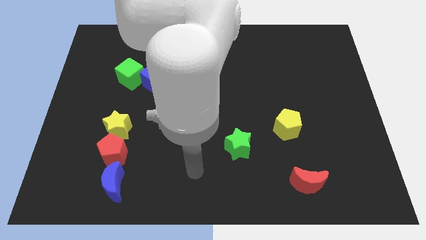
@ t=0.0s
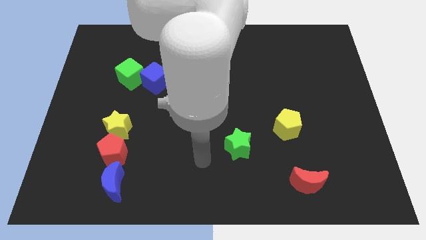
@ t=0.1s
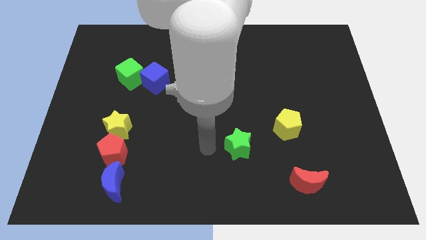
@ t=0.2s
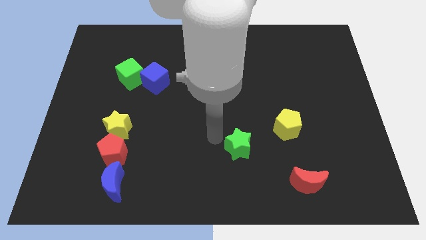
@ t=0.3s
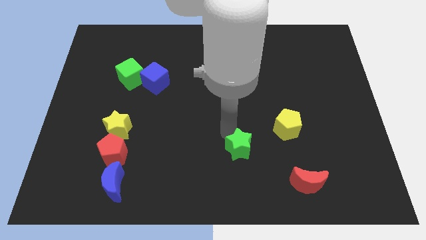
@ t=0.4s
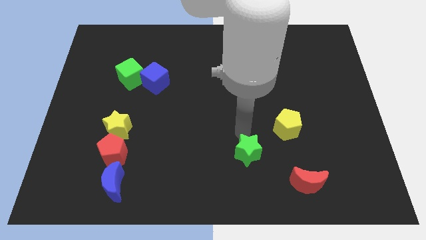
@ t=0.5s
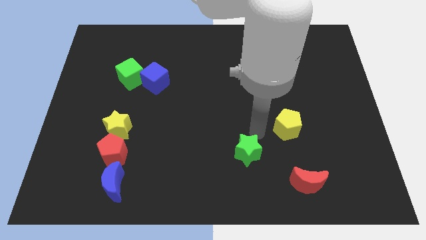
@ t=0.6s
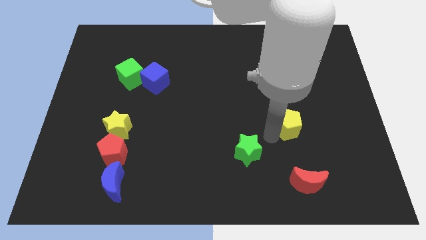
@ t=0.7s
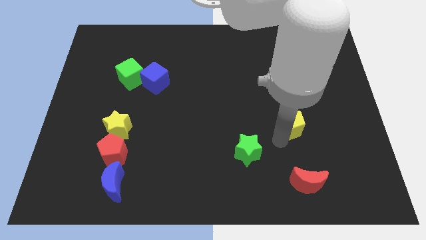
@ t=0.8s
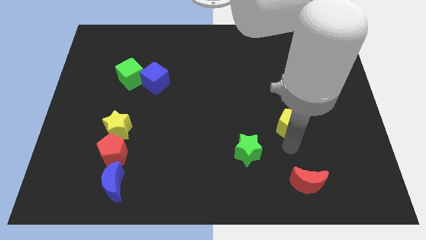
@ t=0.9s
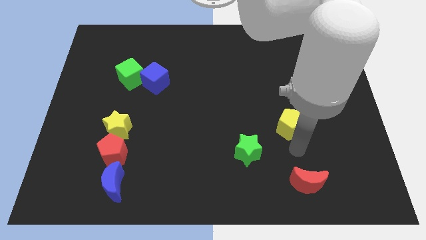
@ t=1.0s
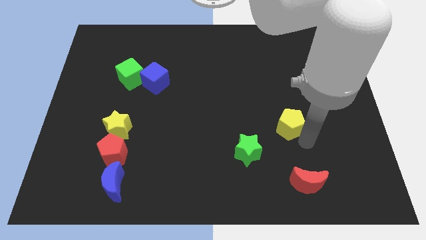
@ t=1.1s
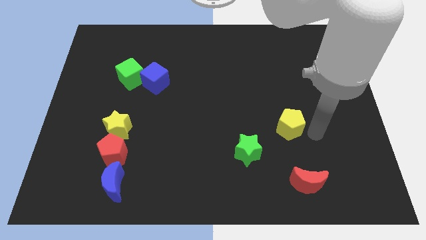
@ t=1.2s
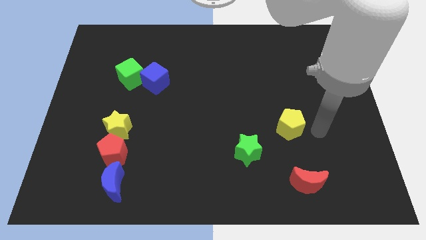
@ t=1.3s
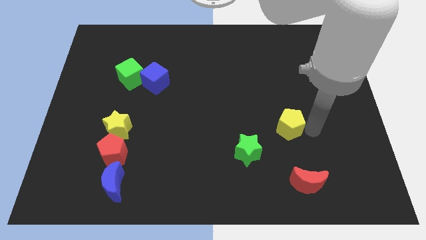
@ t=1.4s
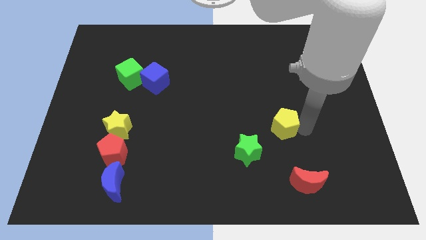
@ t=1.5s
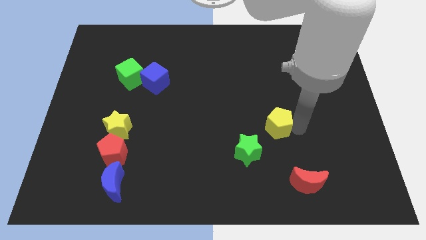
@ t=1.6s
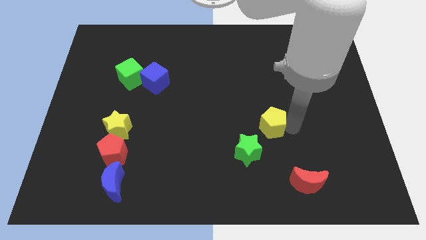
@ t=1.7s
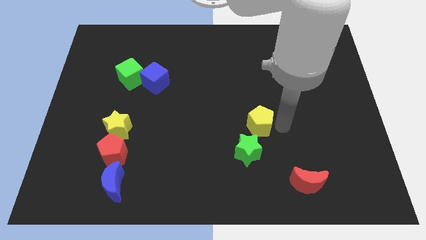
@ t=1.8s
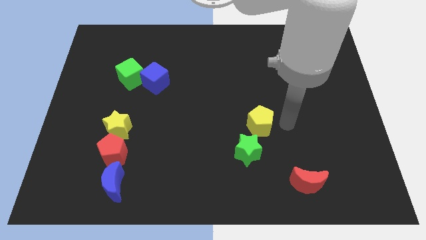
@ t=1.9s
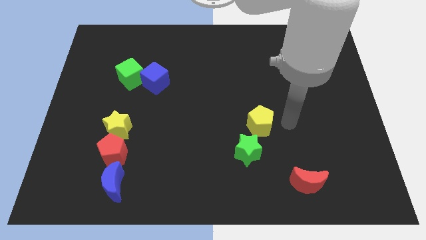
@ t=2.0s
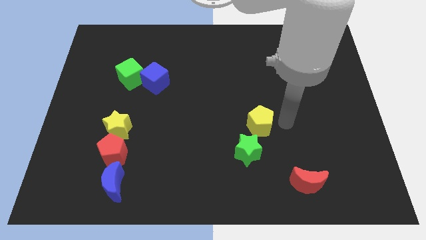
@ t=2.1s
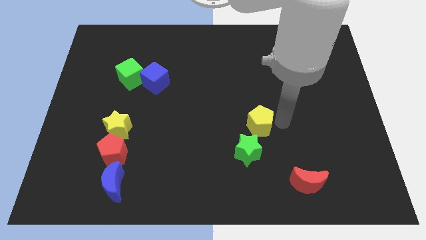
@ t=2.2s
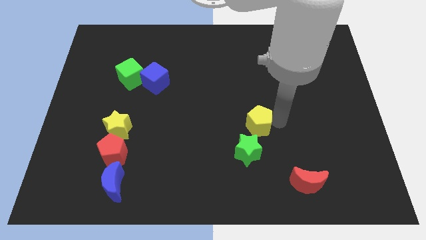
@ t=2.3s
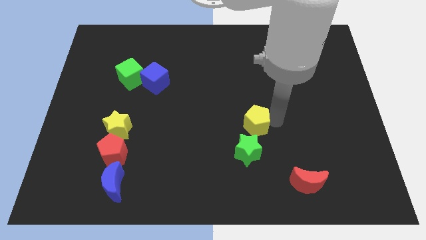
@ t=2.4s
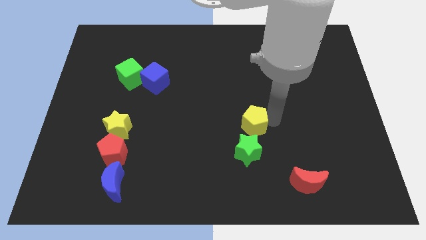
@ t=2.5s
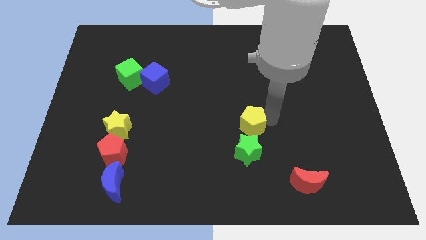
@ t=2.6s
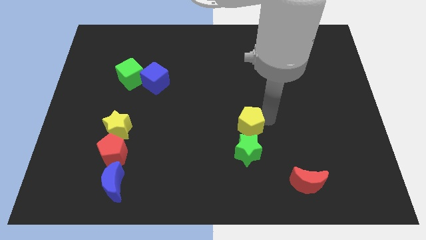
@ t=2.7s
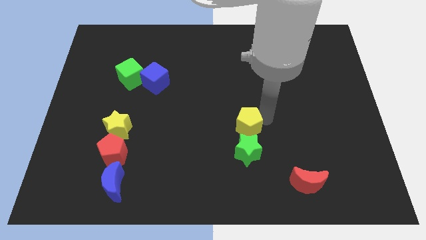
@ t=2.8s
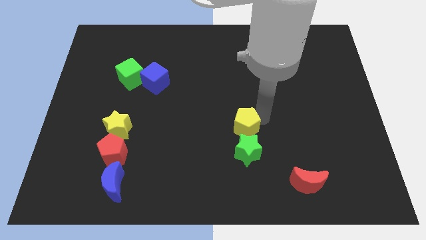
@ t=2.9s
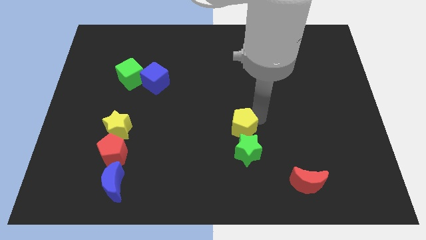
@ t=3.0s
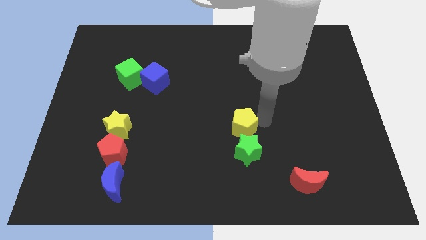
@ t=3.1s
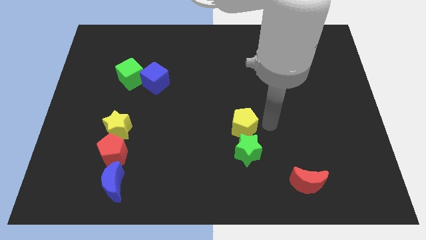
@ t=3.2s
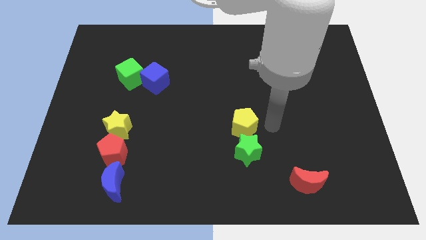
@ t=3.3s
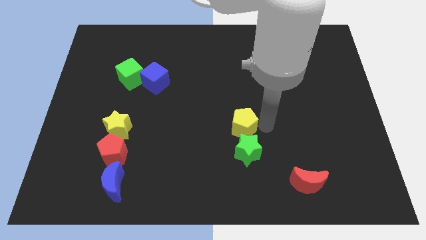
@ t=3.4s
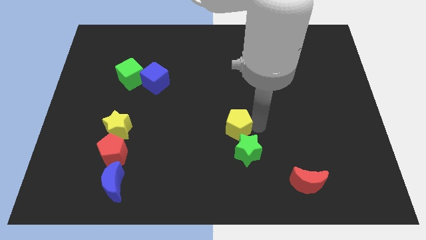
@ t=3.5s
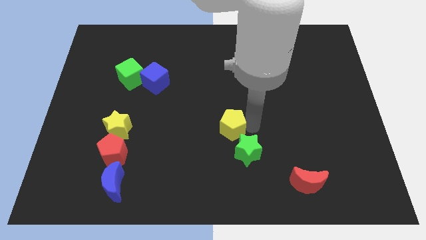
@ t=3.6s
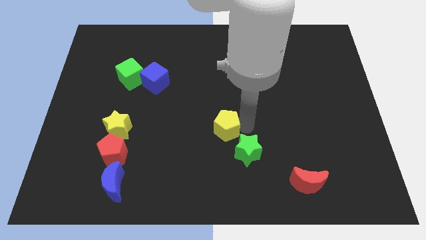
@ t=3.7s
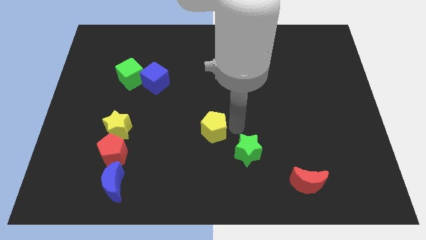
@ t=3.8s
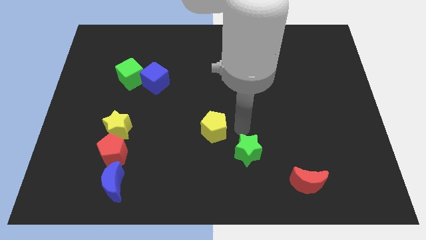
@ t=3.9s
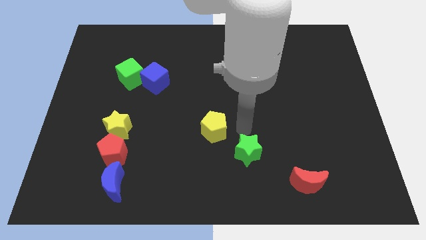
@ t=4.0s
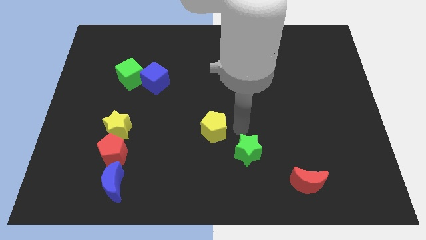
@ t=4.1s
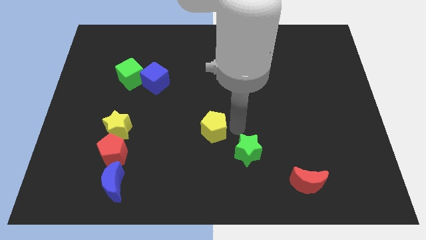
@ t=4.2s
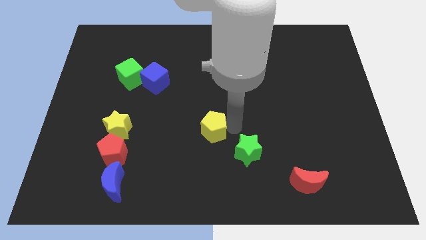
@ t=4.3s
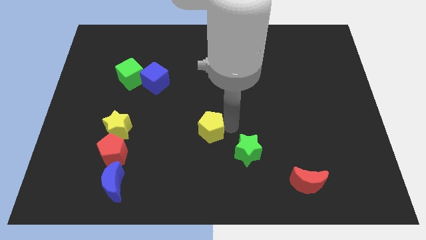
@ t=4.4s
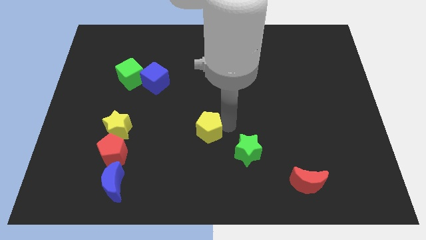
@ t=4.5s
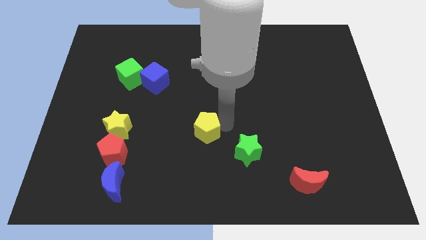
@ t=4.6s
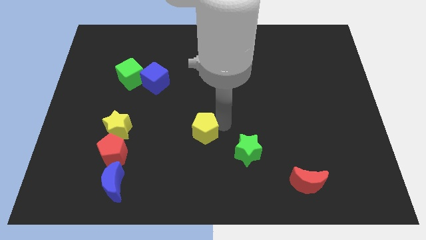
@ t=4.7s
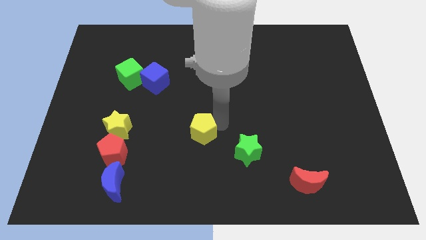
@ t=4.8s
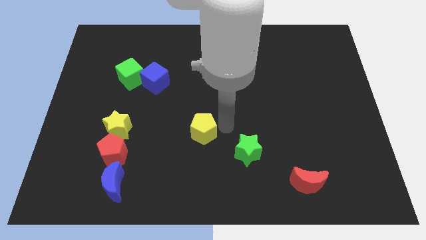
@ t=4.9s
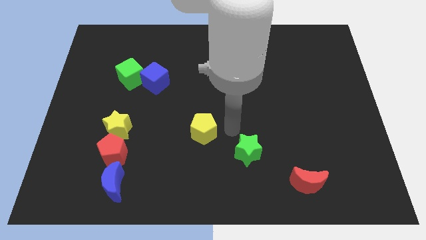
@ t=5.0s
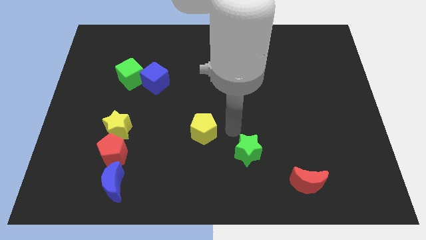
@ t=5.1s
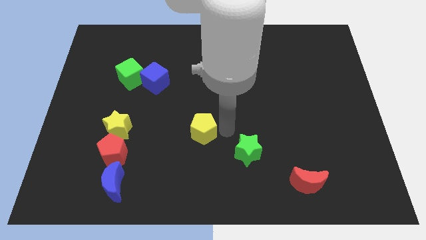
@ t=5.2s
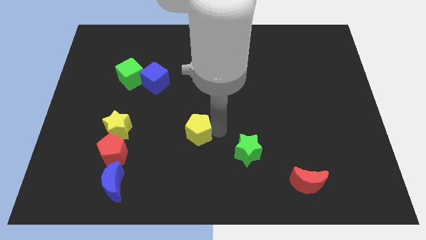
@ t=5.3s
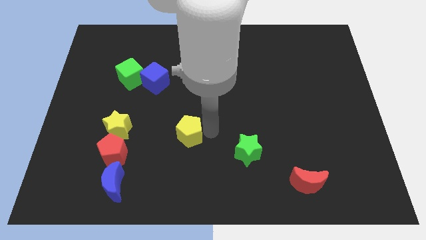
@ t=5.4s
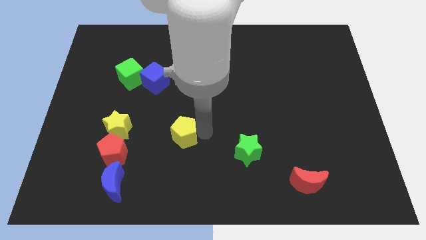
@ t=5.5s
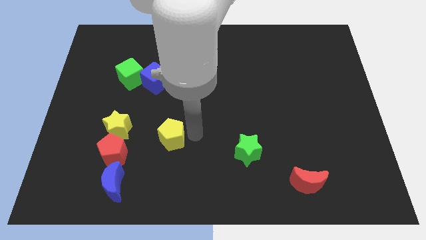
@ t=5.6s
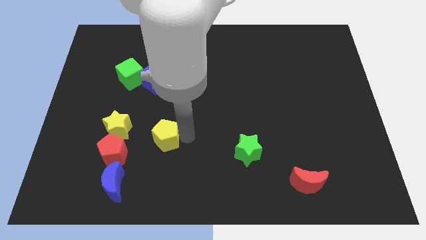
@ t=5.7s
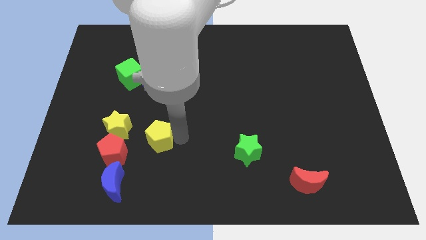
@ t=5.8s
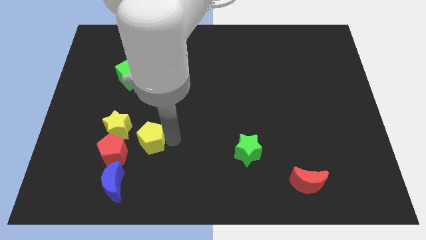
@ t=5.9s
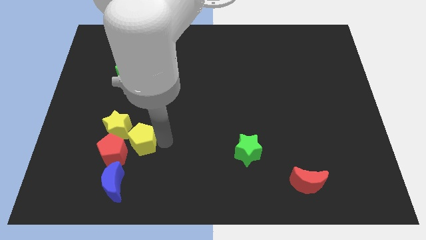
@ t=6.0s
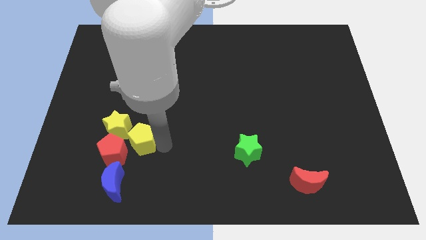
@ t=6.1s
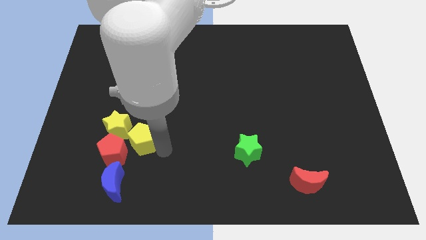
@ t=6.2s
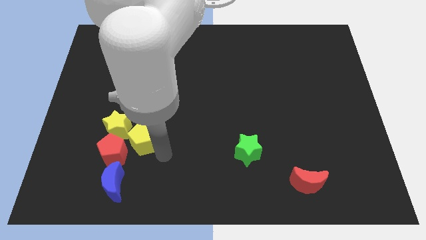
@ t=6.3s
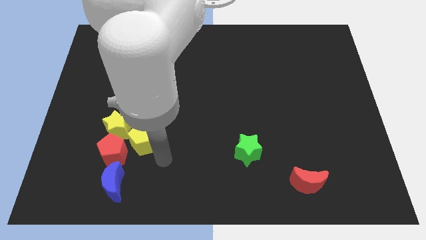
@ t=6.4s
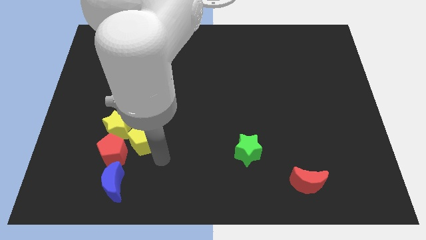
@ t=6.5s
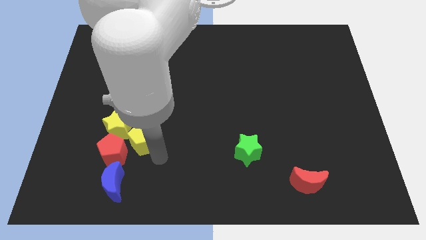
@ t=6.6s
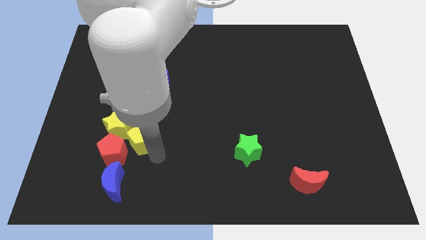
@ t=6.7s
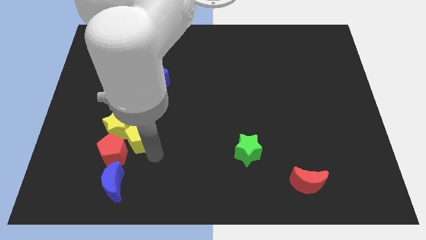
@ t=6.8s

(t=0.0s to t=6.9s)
put the yellow pentagon close to the yellow star
